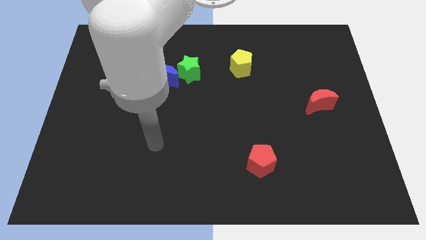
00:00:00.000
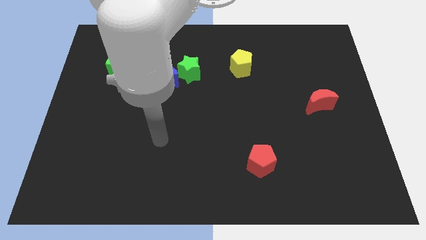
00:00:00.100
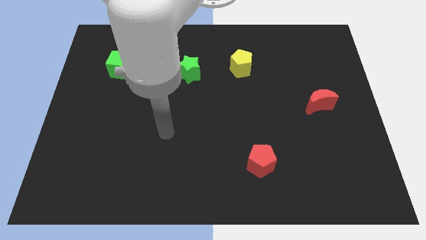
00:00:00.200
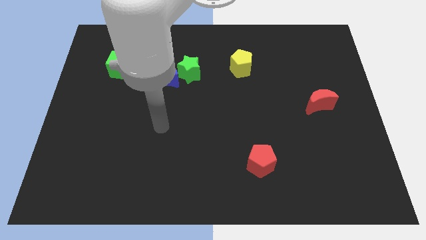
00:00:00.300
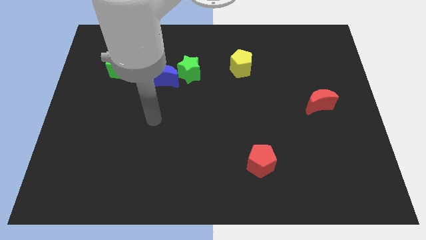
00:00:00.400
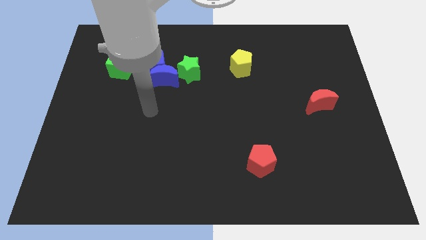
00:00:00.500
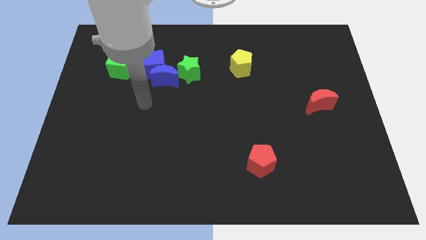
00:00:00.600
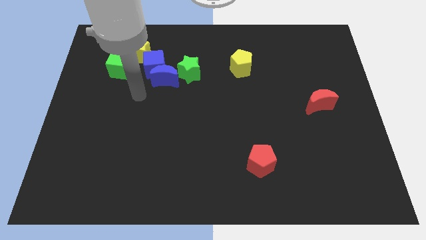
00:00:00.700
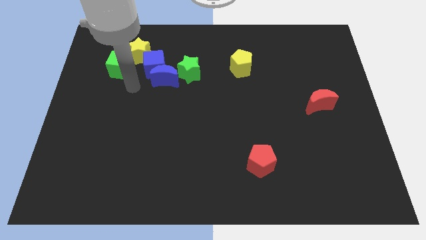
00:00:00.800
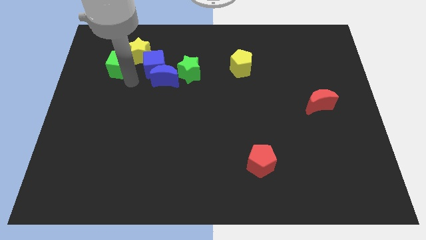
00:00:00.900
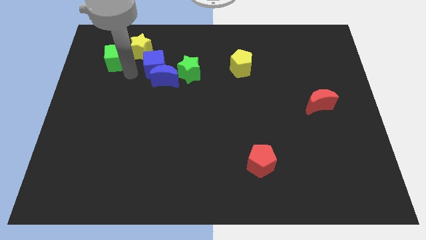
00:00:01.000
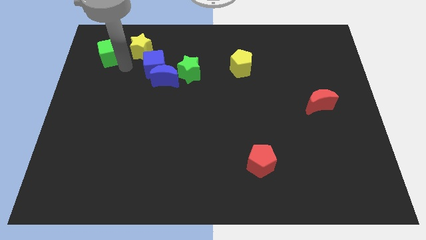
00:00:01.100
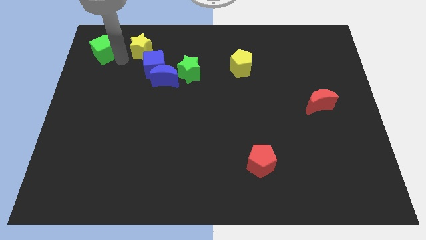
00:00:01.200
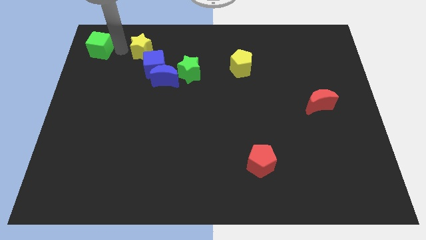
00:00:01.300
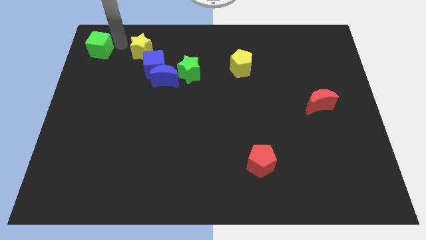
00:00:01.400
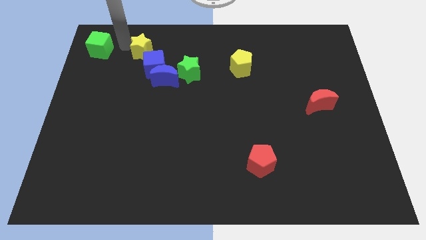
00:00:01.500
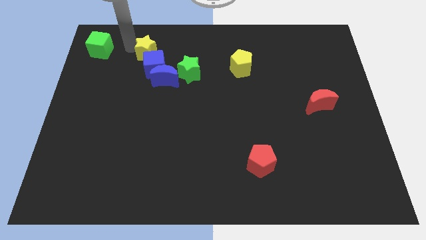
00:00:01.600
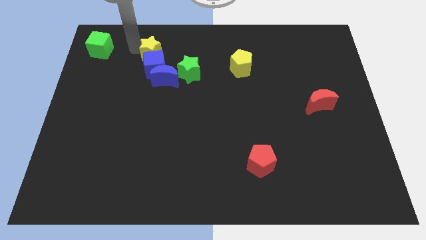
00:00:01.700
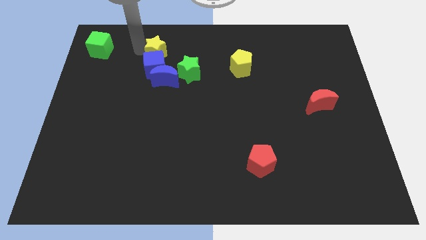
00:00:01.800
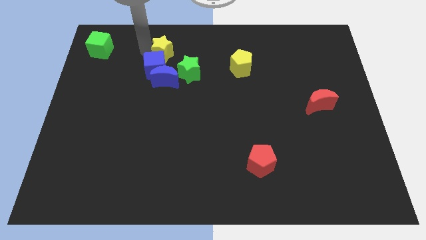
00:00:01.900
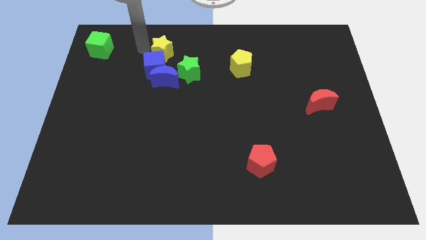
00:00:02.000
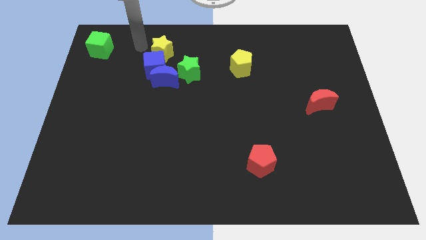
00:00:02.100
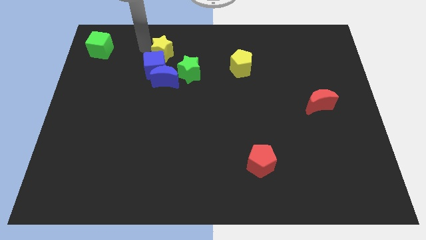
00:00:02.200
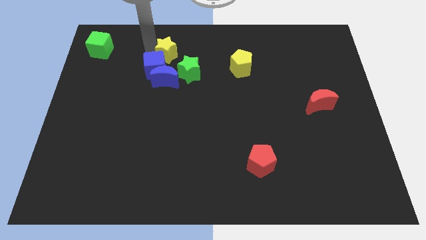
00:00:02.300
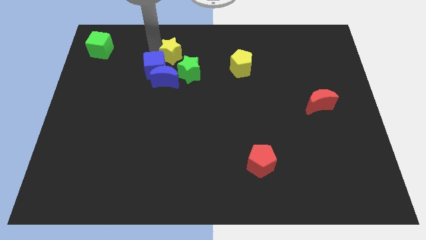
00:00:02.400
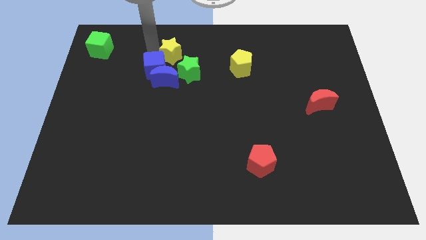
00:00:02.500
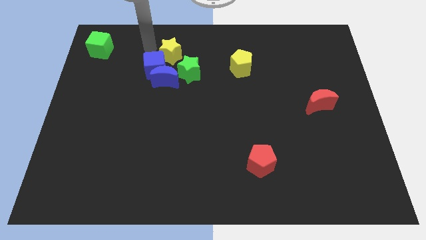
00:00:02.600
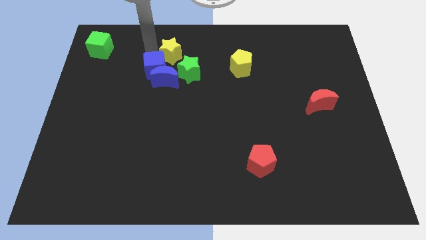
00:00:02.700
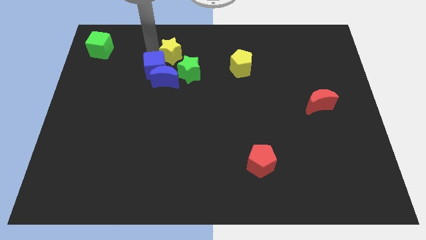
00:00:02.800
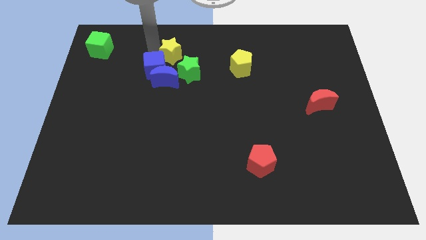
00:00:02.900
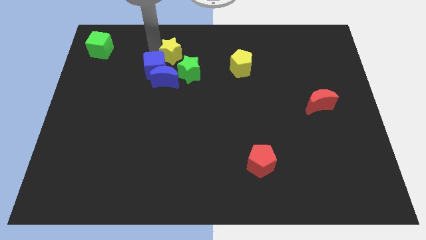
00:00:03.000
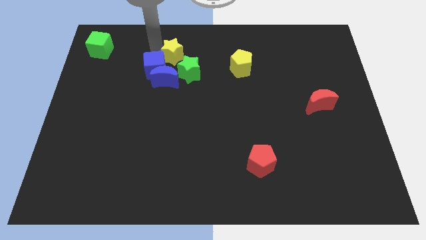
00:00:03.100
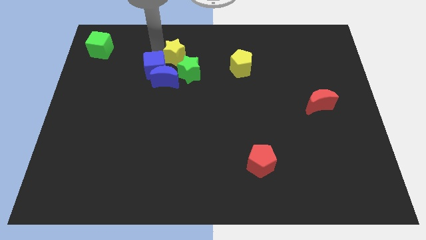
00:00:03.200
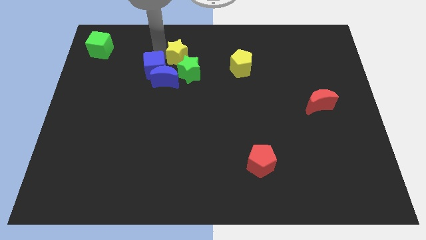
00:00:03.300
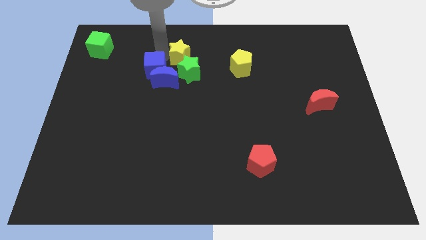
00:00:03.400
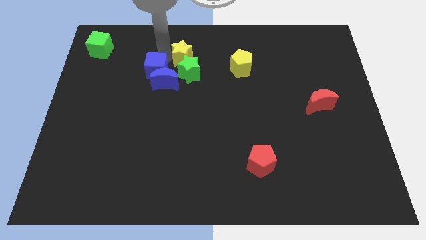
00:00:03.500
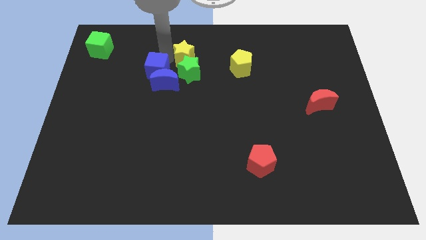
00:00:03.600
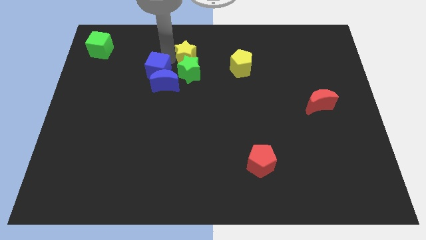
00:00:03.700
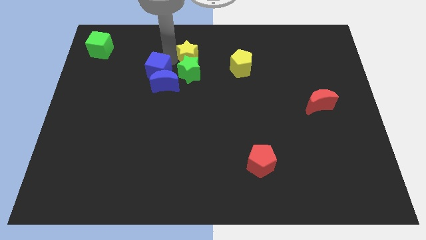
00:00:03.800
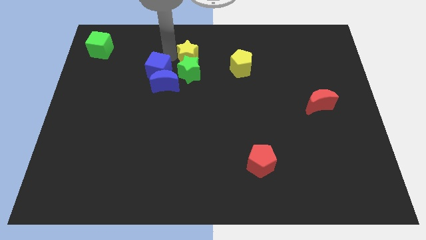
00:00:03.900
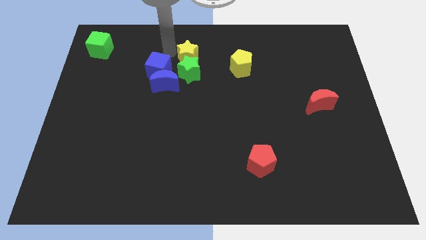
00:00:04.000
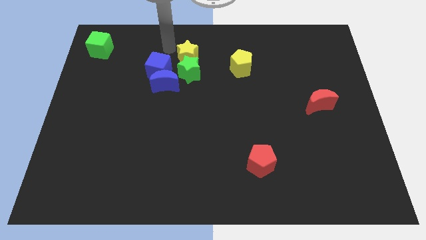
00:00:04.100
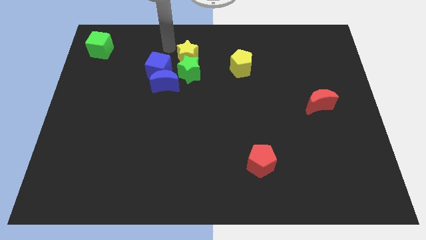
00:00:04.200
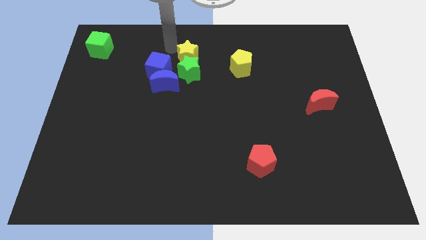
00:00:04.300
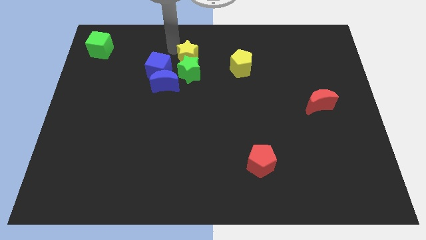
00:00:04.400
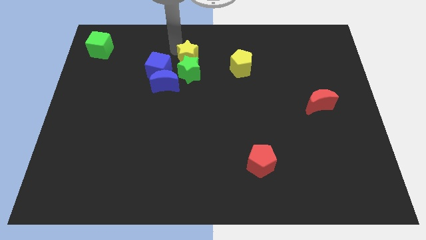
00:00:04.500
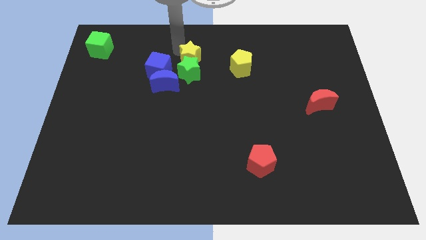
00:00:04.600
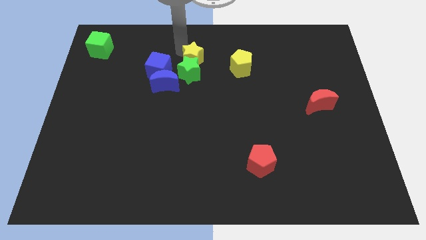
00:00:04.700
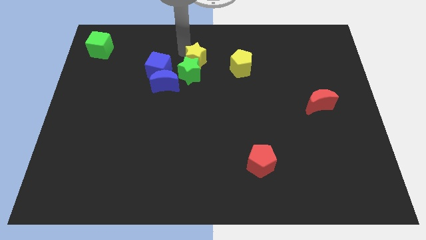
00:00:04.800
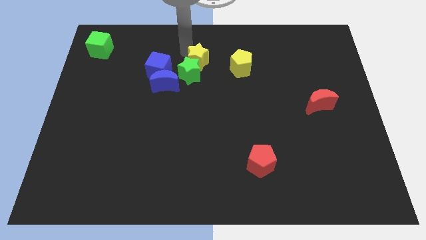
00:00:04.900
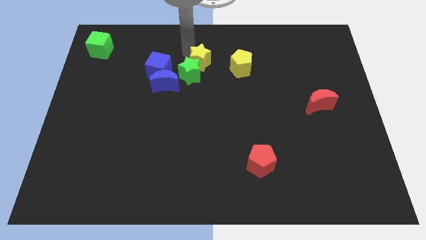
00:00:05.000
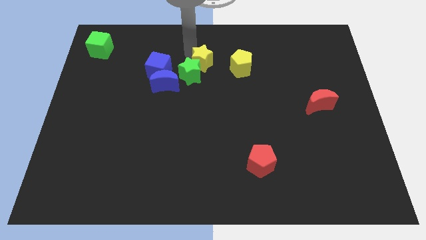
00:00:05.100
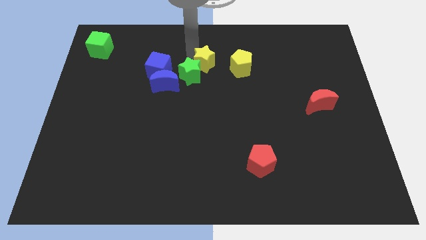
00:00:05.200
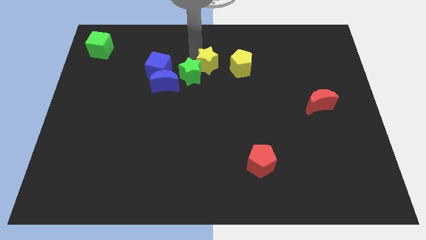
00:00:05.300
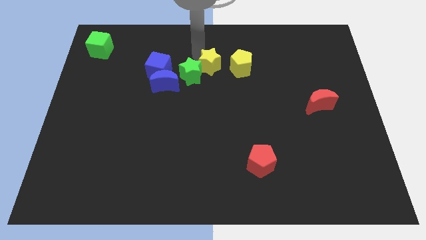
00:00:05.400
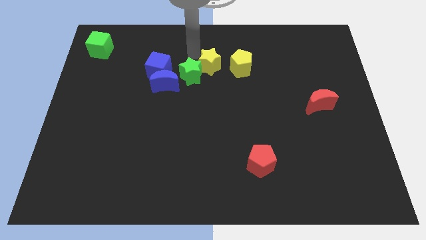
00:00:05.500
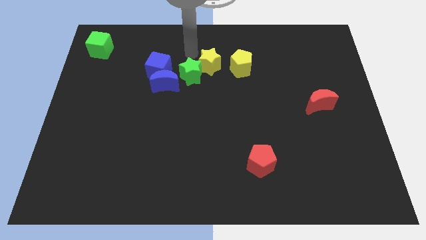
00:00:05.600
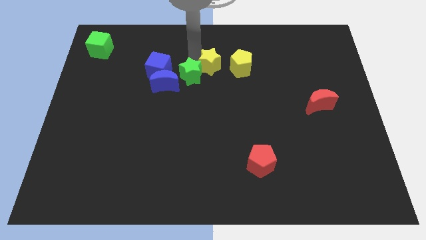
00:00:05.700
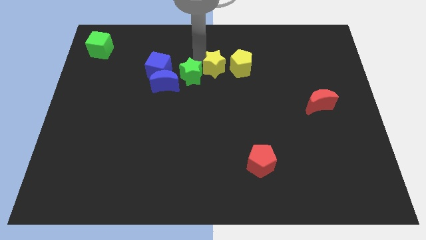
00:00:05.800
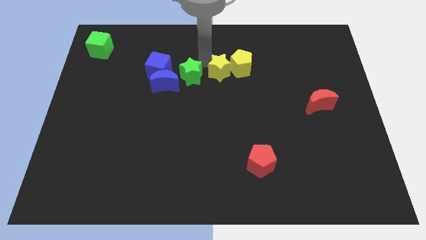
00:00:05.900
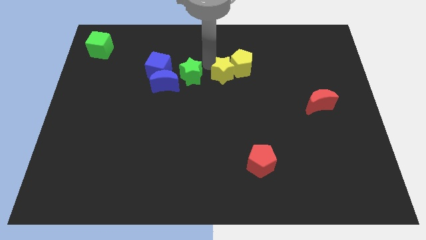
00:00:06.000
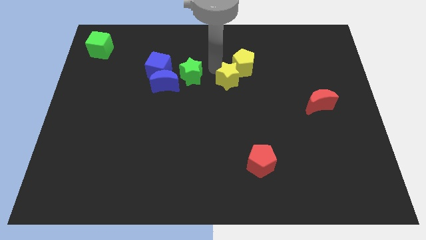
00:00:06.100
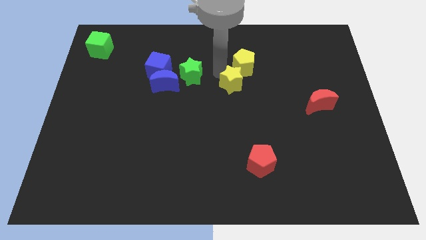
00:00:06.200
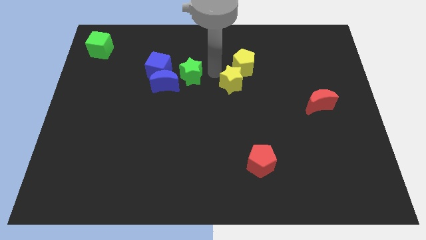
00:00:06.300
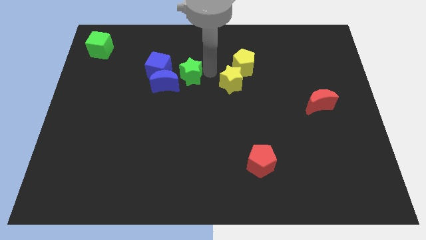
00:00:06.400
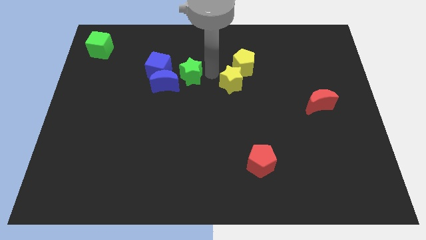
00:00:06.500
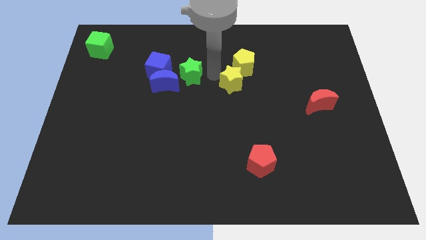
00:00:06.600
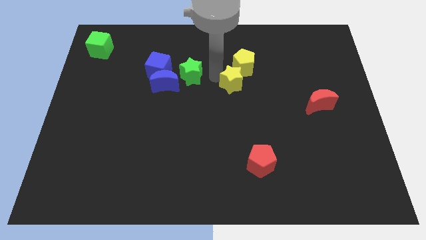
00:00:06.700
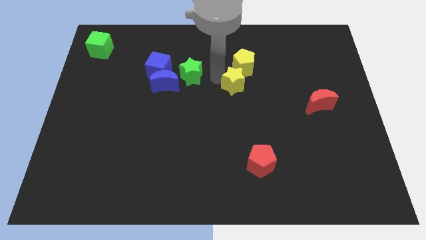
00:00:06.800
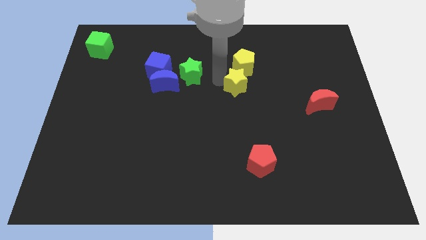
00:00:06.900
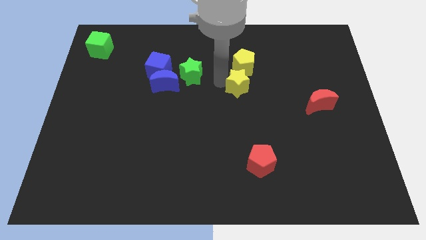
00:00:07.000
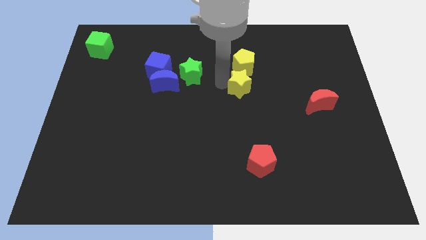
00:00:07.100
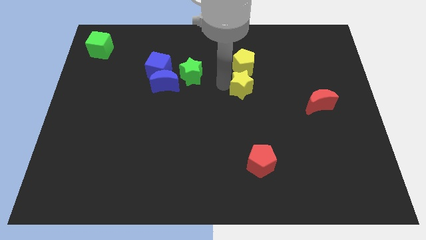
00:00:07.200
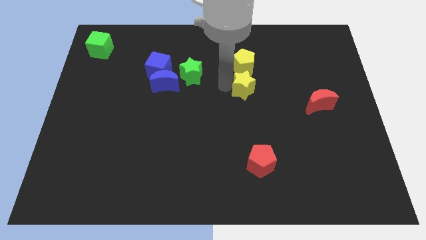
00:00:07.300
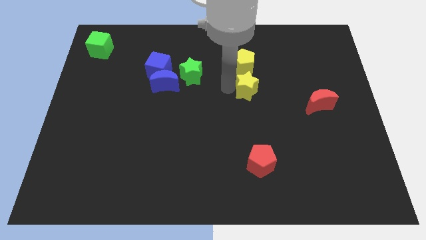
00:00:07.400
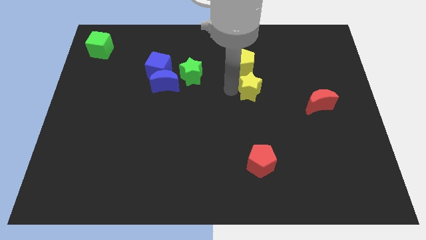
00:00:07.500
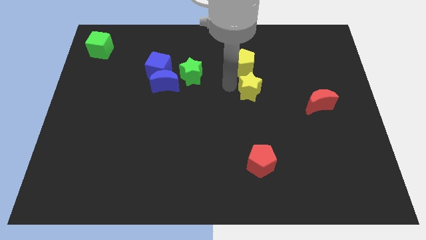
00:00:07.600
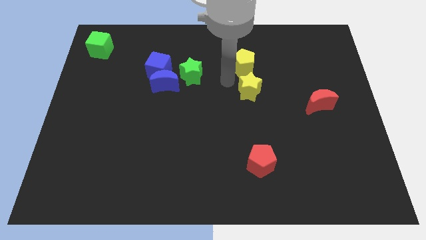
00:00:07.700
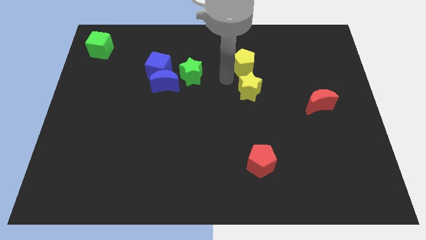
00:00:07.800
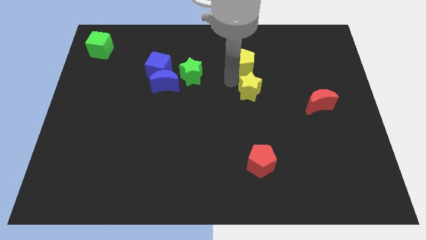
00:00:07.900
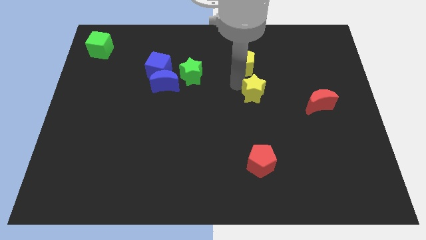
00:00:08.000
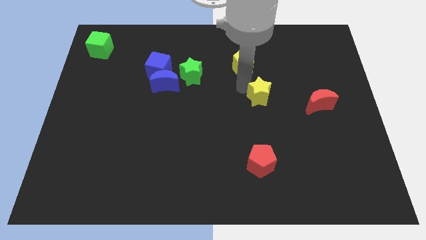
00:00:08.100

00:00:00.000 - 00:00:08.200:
push the yellow star left of the red moon
